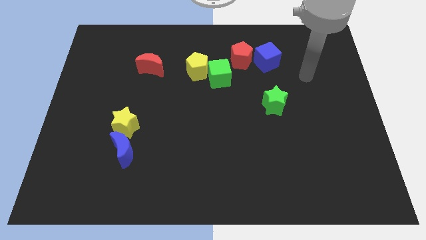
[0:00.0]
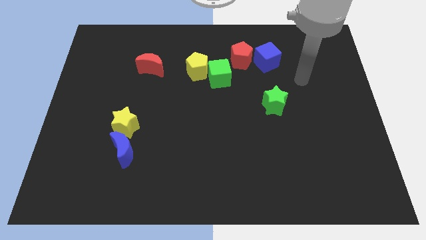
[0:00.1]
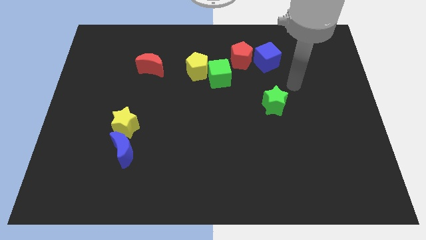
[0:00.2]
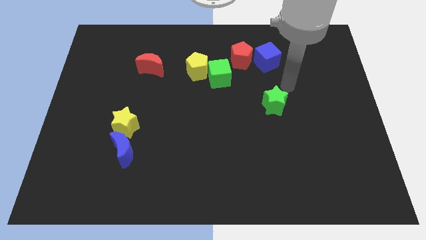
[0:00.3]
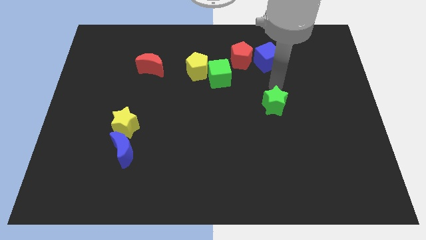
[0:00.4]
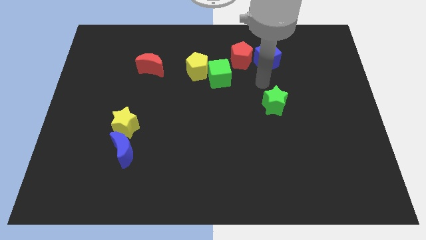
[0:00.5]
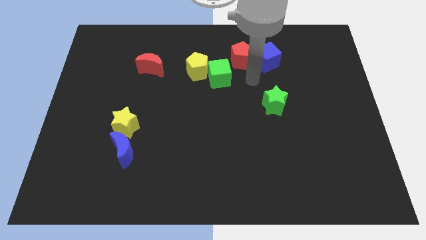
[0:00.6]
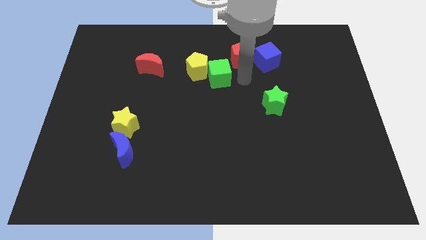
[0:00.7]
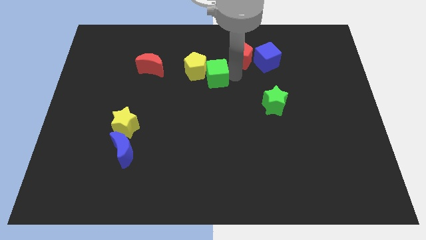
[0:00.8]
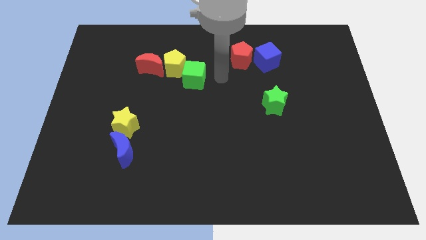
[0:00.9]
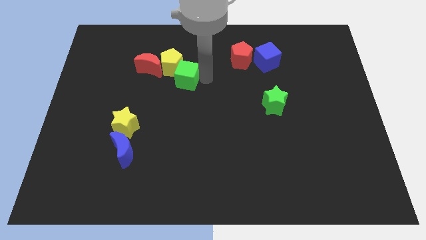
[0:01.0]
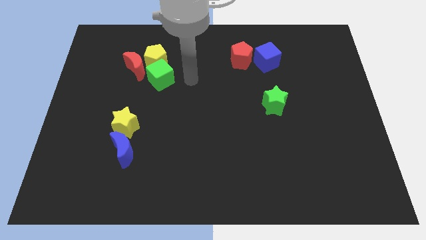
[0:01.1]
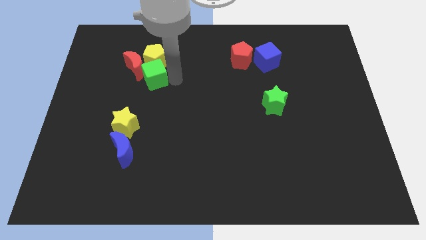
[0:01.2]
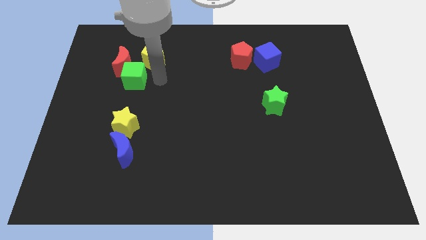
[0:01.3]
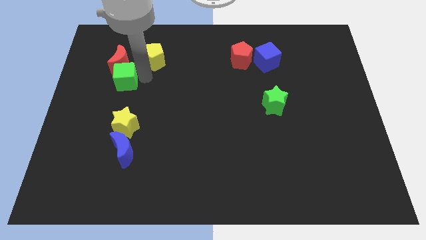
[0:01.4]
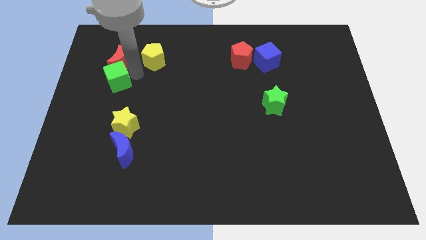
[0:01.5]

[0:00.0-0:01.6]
separate the yellow pentagon from the green cube

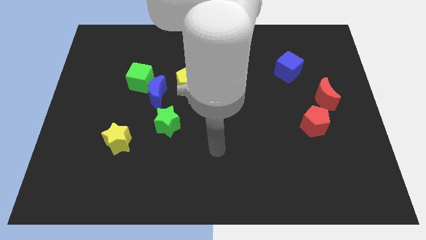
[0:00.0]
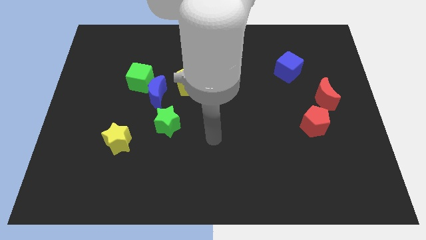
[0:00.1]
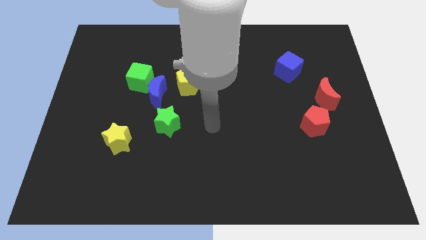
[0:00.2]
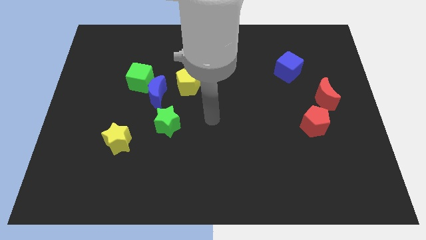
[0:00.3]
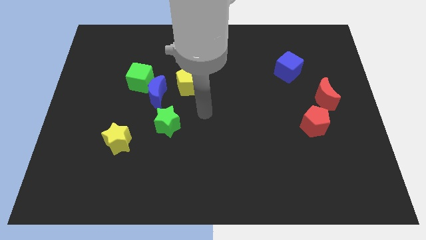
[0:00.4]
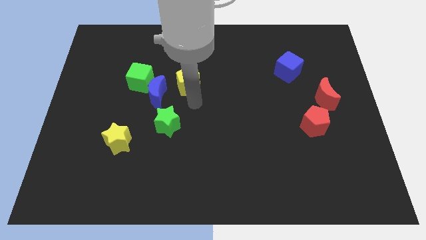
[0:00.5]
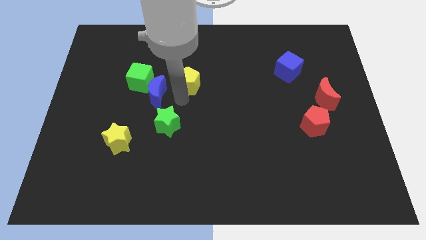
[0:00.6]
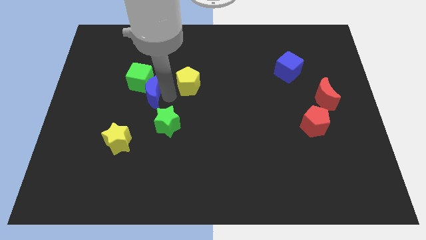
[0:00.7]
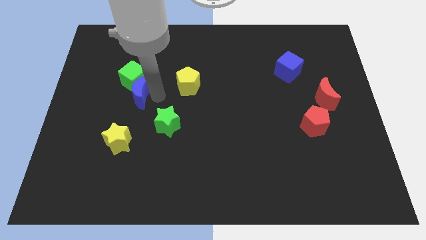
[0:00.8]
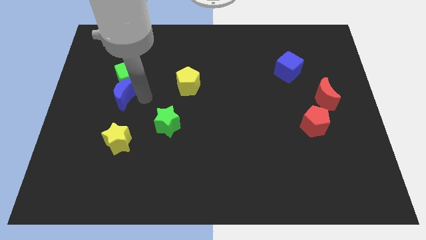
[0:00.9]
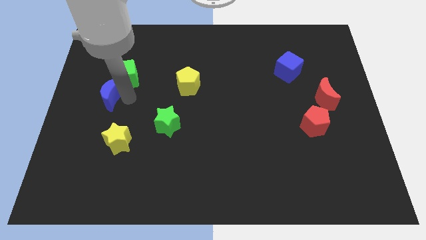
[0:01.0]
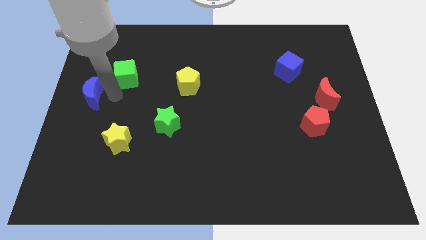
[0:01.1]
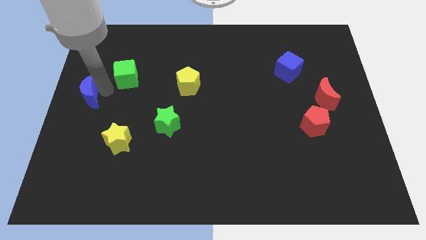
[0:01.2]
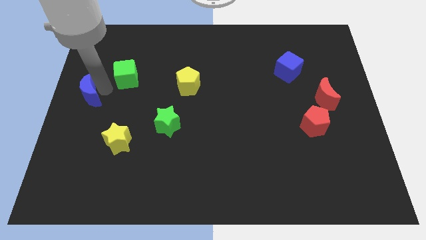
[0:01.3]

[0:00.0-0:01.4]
move the green cube away from the blue moon

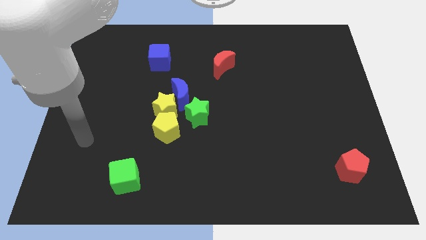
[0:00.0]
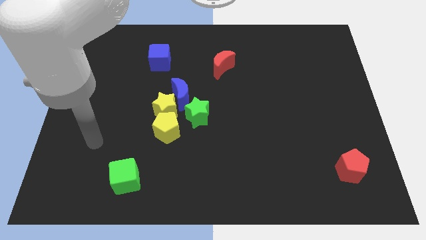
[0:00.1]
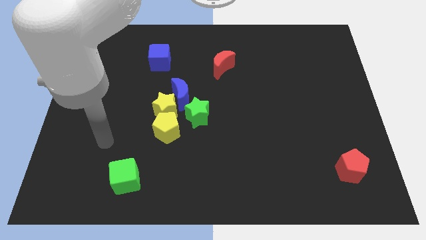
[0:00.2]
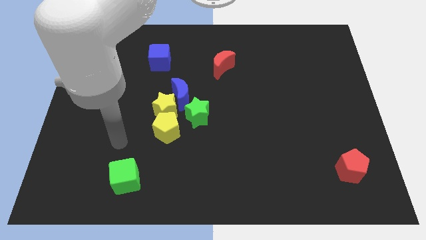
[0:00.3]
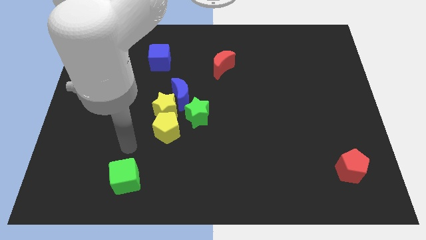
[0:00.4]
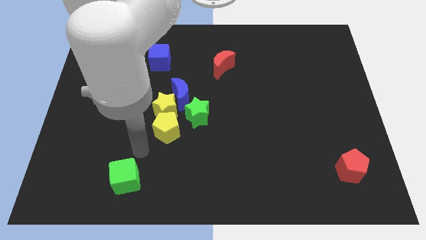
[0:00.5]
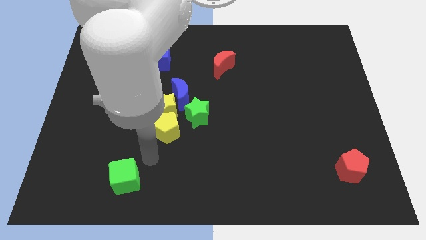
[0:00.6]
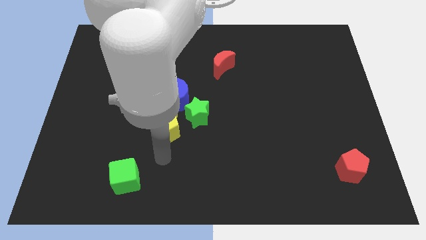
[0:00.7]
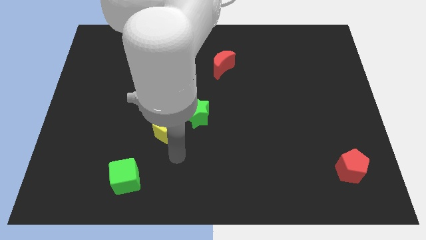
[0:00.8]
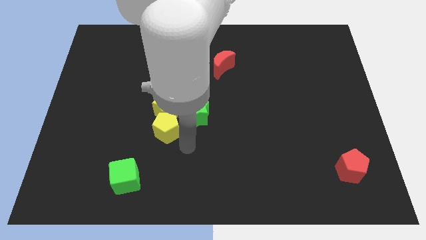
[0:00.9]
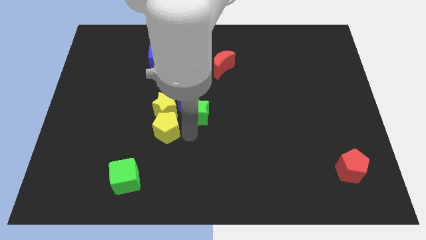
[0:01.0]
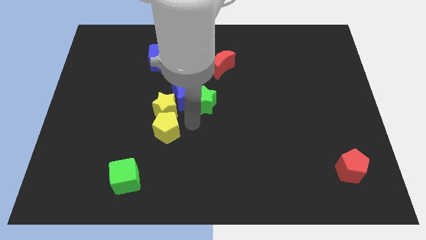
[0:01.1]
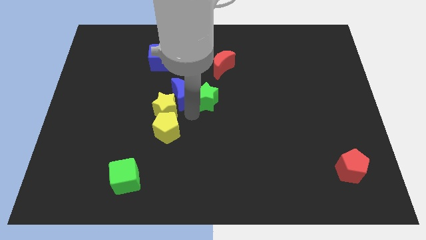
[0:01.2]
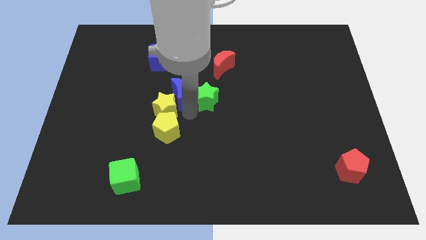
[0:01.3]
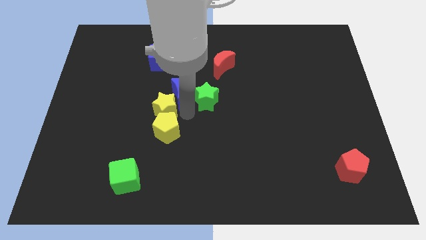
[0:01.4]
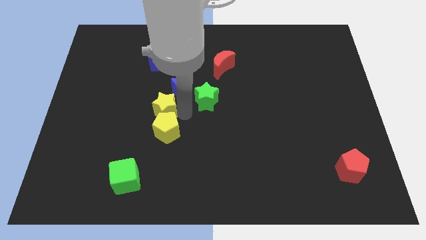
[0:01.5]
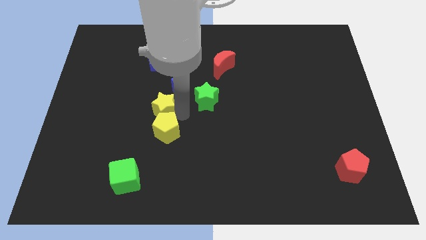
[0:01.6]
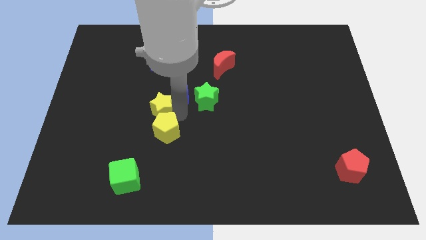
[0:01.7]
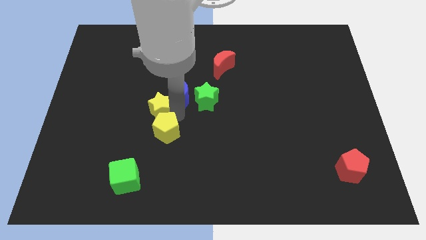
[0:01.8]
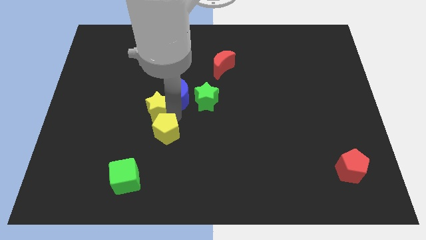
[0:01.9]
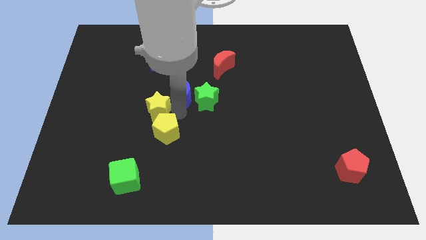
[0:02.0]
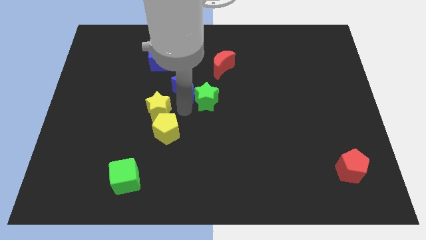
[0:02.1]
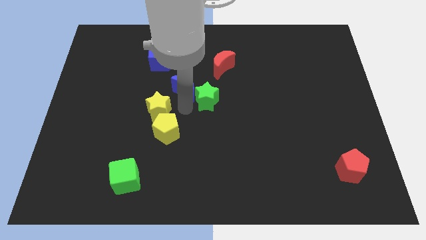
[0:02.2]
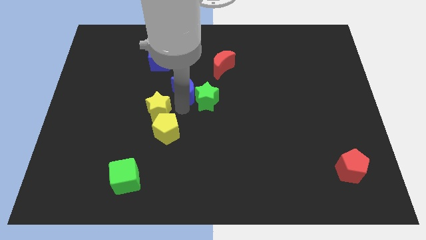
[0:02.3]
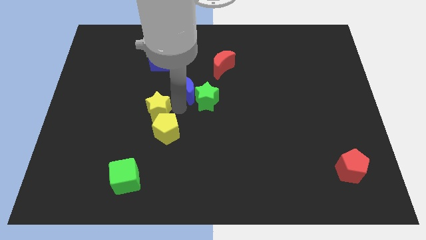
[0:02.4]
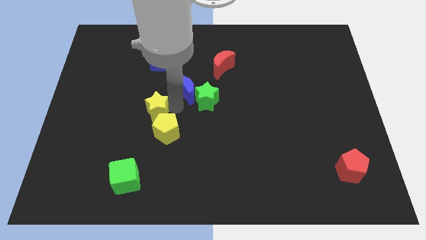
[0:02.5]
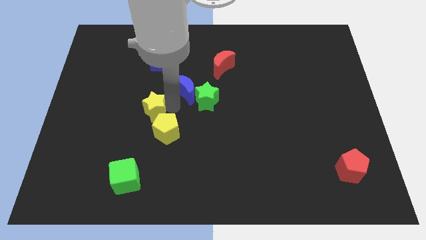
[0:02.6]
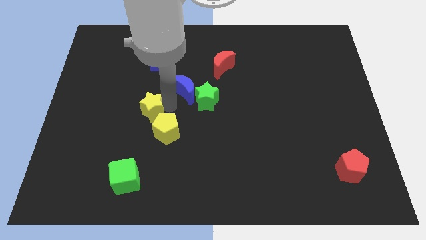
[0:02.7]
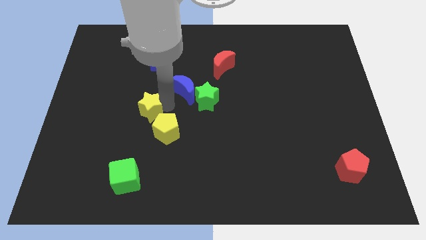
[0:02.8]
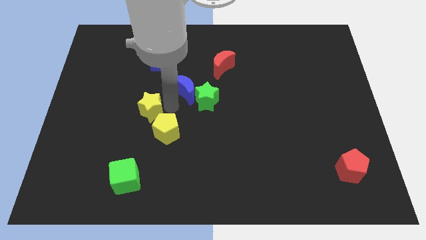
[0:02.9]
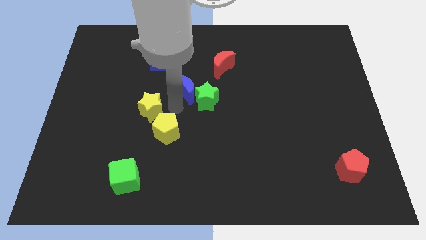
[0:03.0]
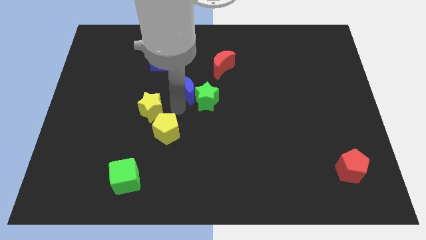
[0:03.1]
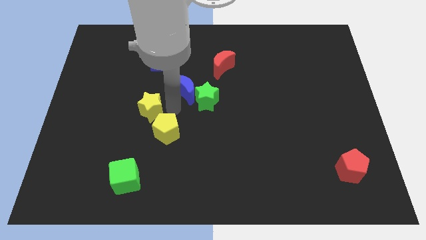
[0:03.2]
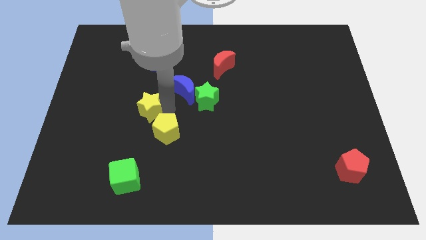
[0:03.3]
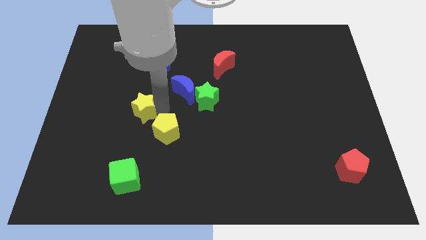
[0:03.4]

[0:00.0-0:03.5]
move the yellow star away from the group

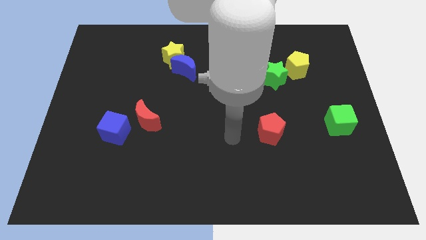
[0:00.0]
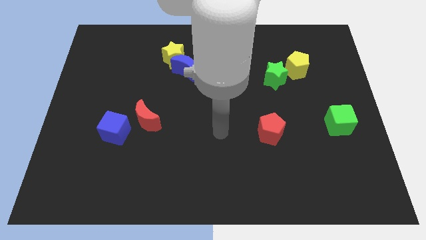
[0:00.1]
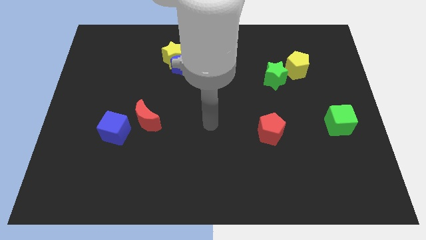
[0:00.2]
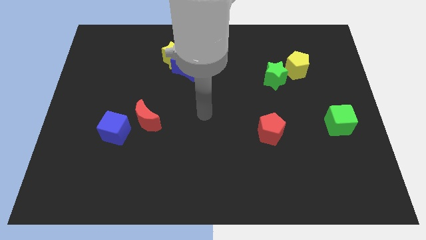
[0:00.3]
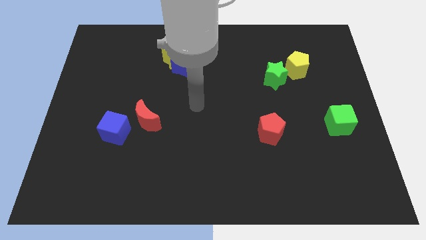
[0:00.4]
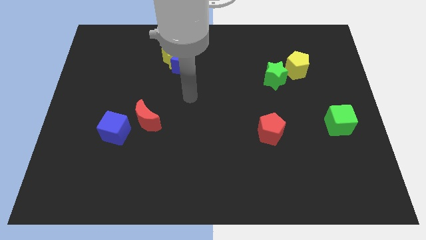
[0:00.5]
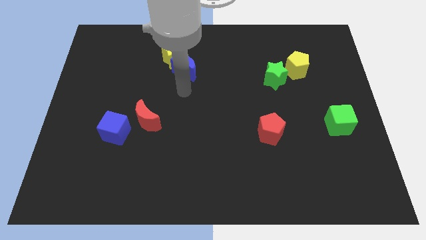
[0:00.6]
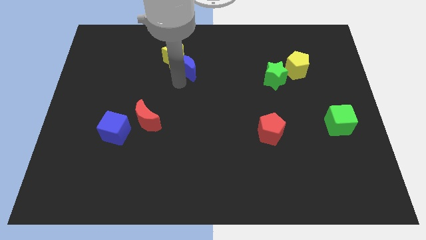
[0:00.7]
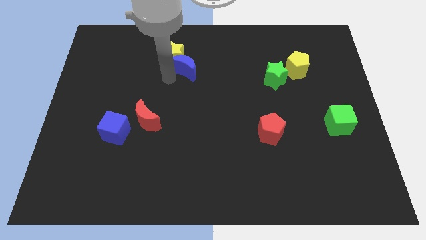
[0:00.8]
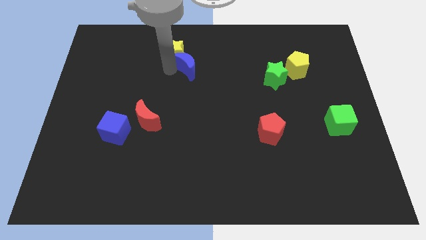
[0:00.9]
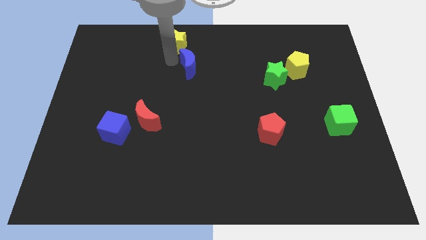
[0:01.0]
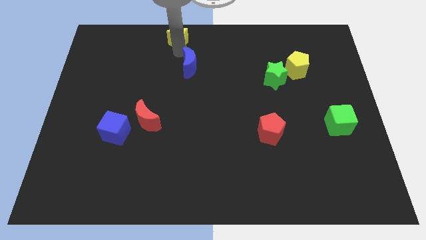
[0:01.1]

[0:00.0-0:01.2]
separate the blue moon from the yellow star

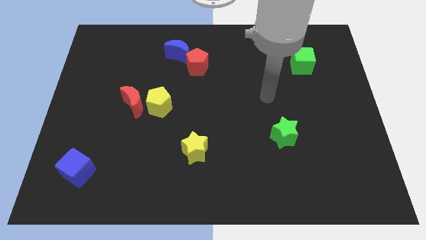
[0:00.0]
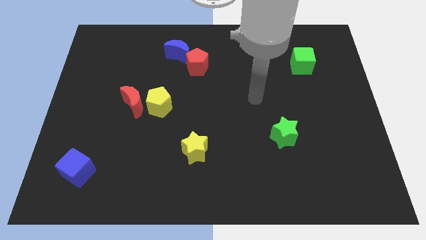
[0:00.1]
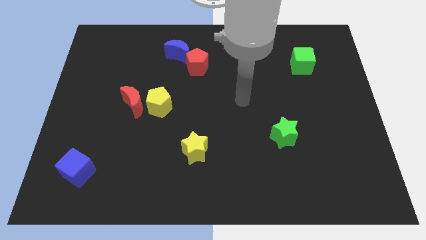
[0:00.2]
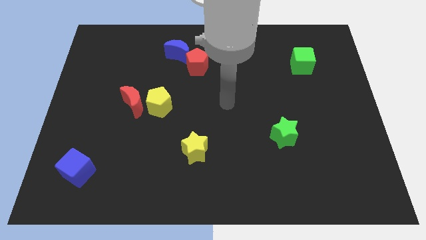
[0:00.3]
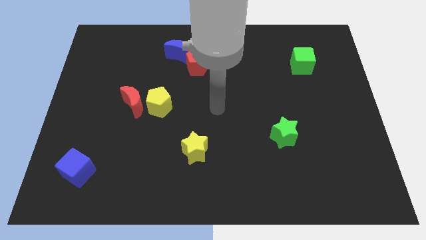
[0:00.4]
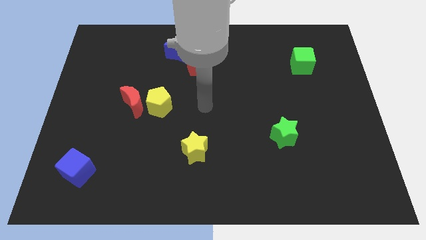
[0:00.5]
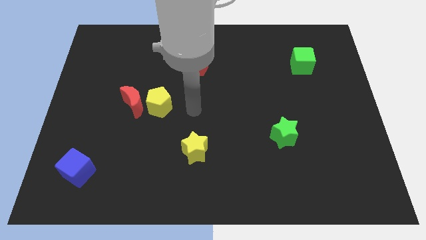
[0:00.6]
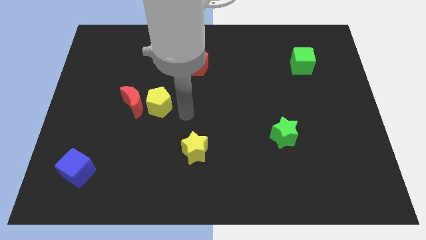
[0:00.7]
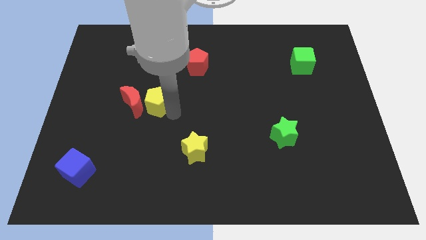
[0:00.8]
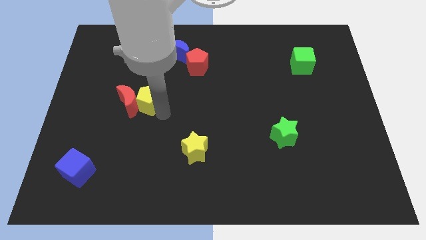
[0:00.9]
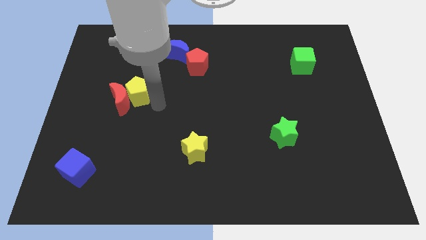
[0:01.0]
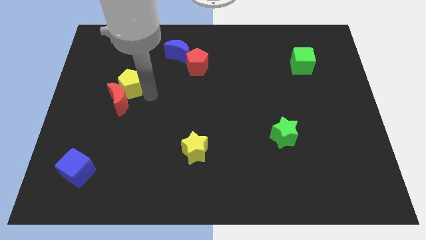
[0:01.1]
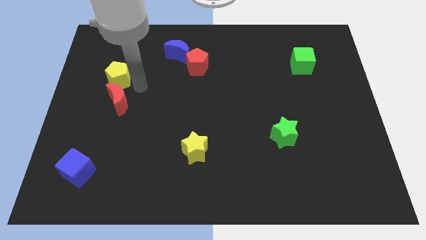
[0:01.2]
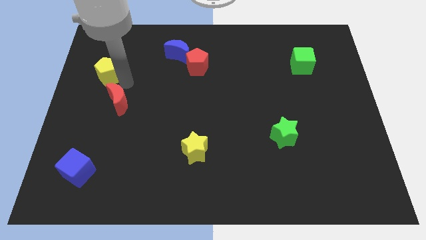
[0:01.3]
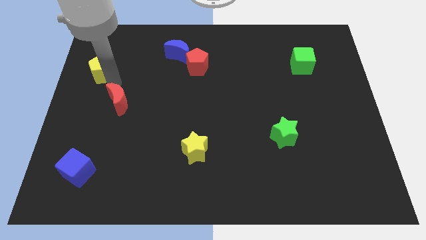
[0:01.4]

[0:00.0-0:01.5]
separate the red moon from the yellow pentagon

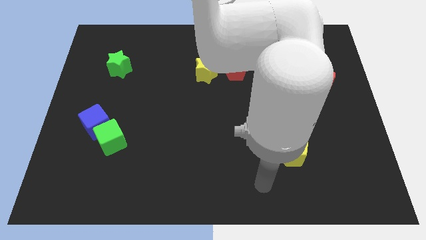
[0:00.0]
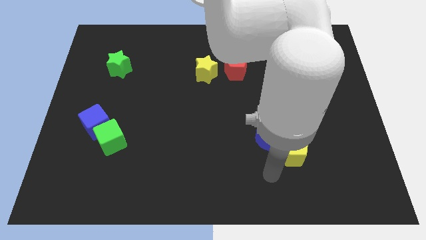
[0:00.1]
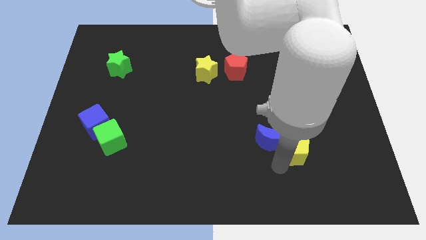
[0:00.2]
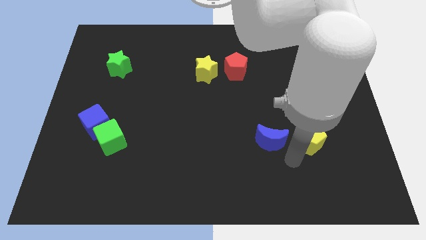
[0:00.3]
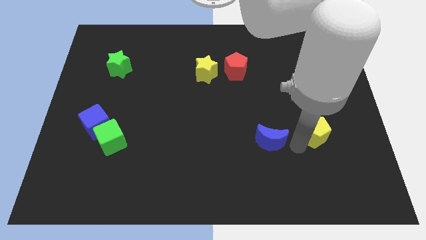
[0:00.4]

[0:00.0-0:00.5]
pull the blue moon apart from the yellow pentagon
